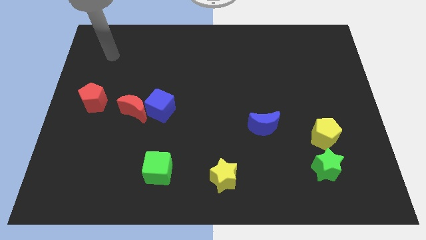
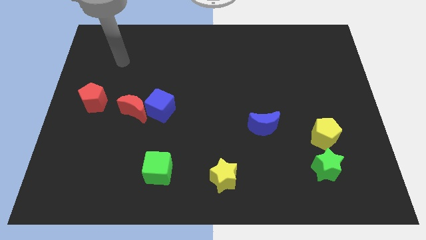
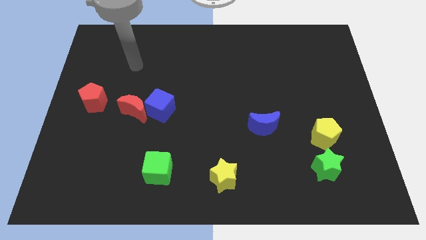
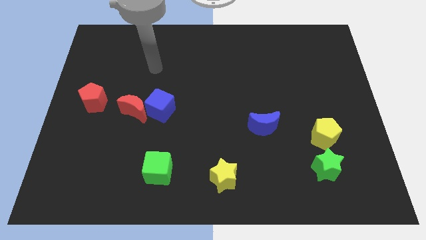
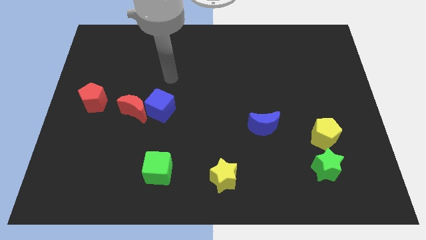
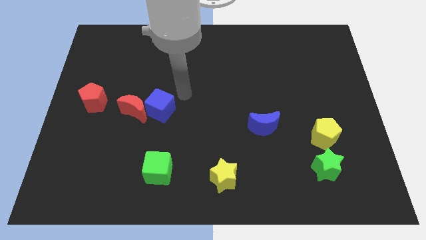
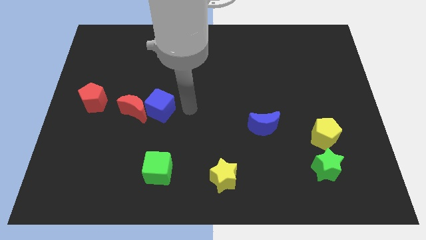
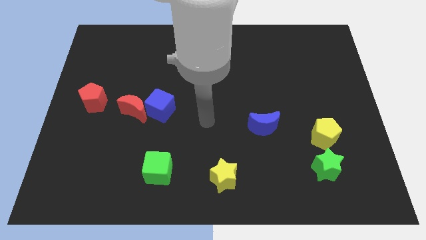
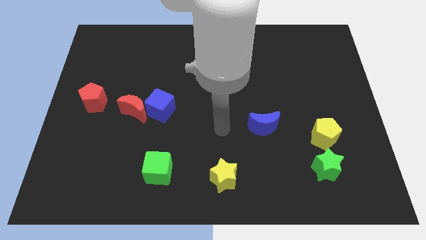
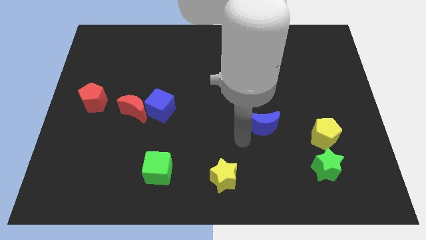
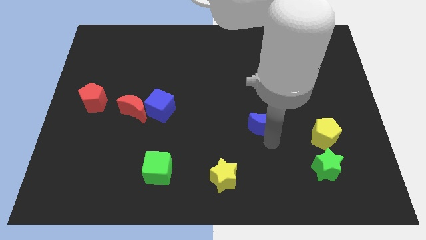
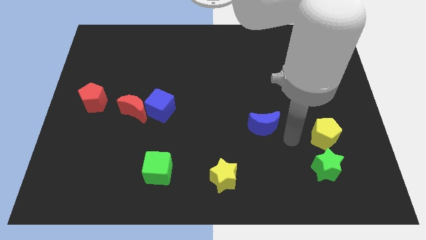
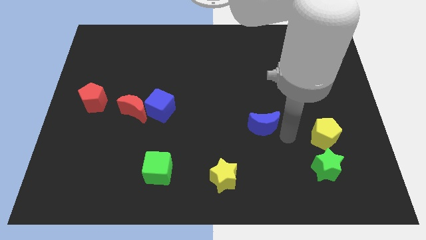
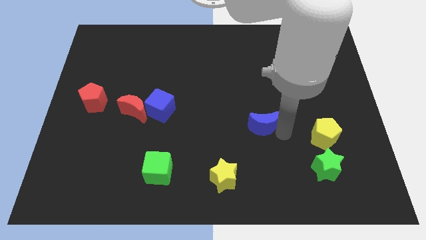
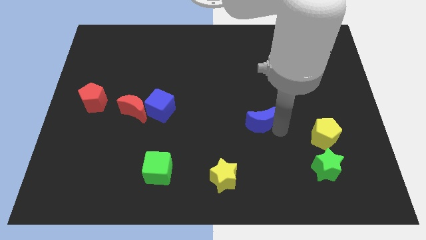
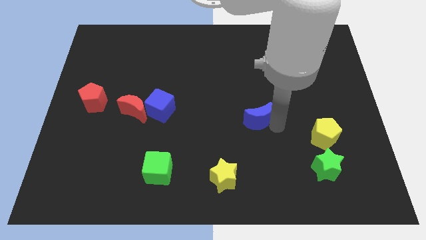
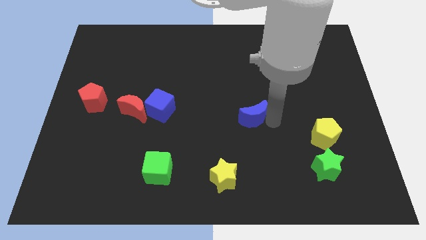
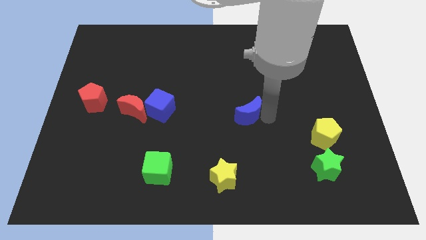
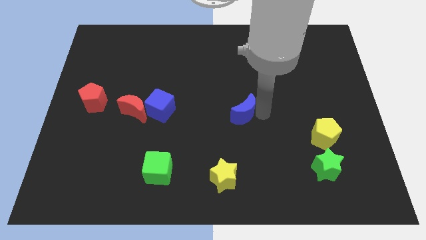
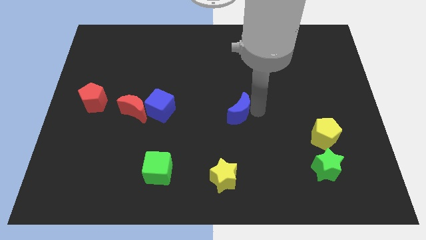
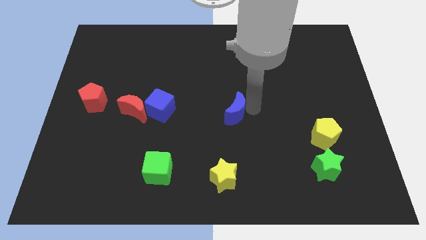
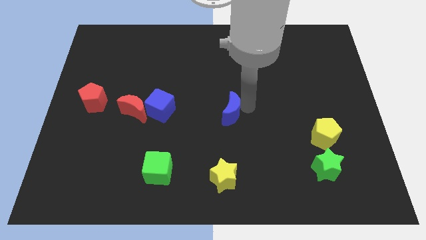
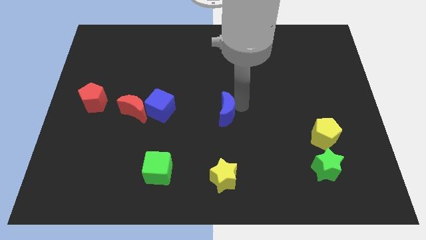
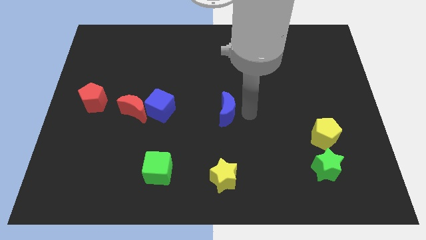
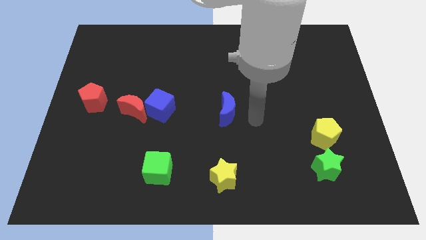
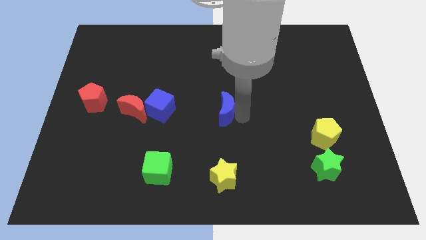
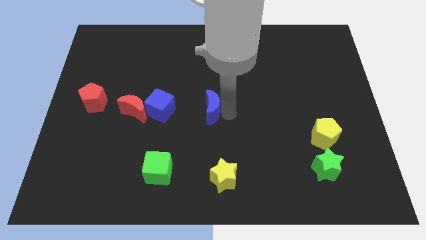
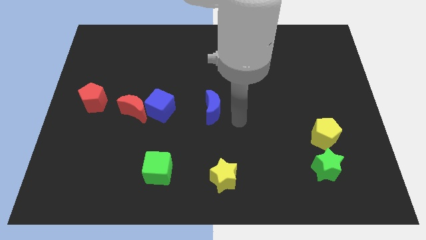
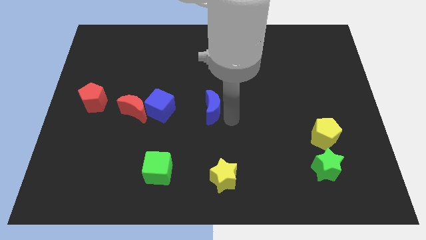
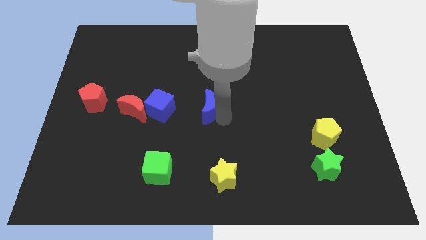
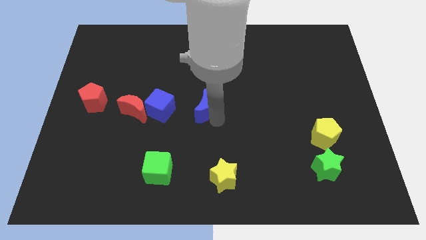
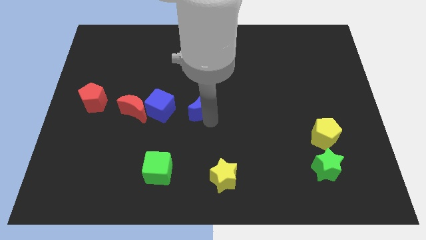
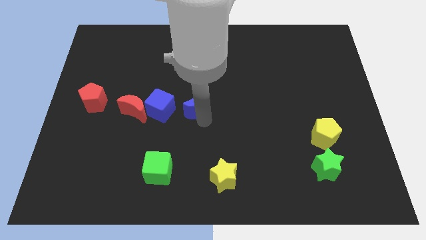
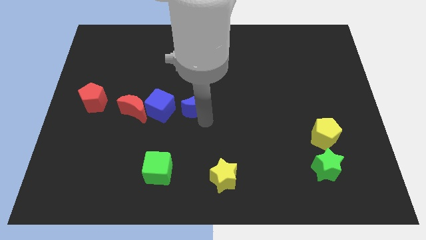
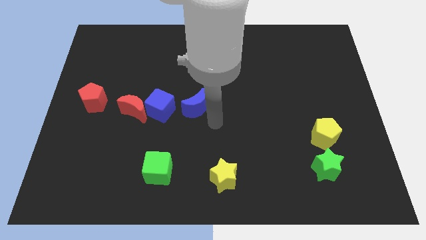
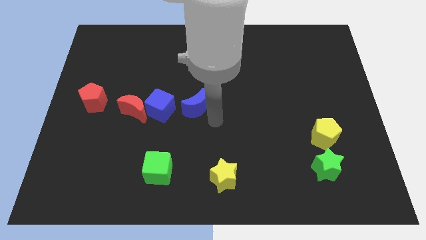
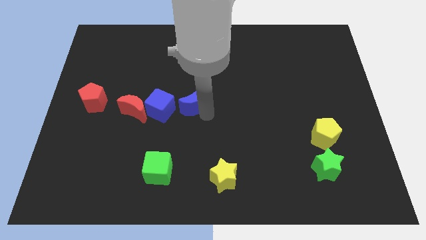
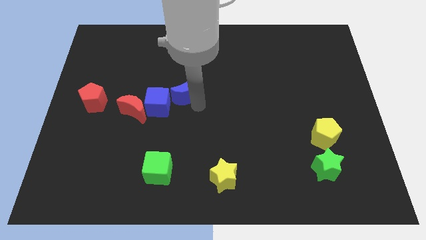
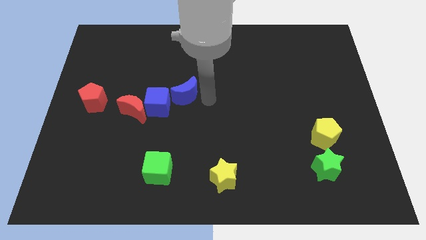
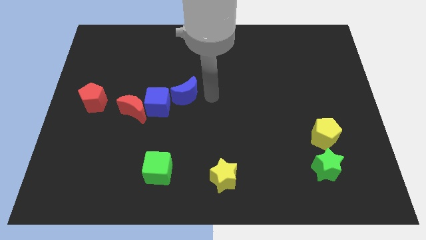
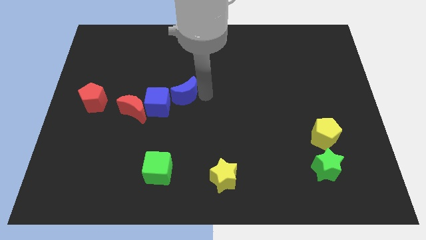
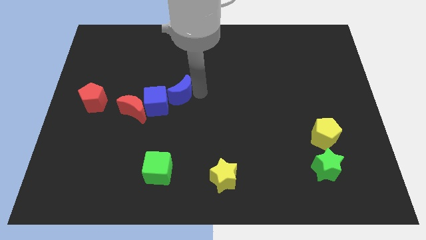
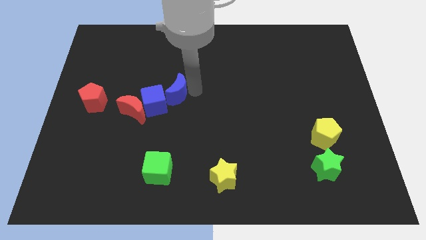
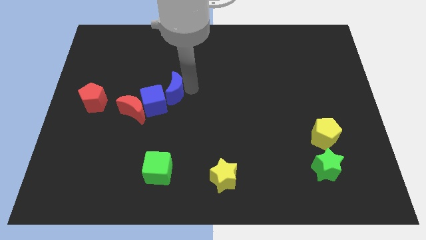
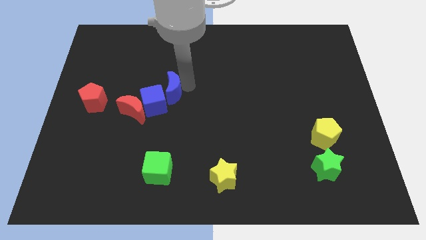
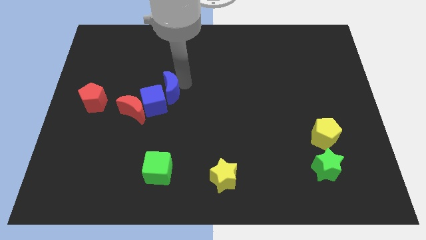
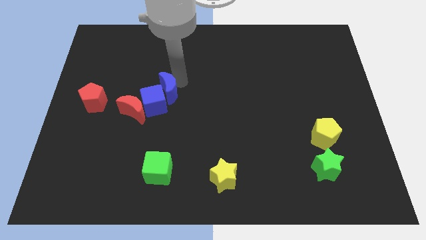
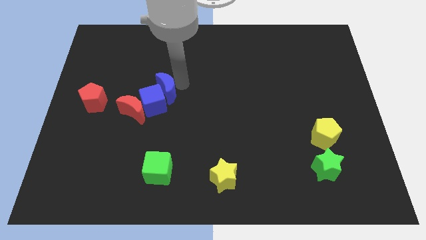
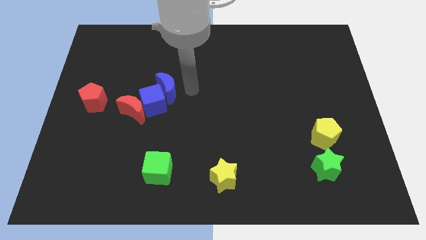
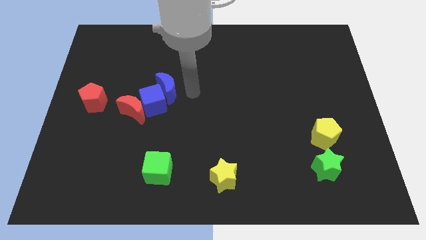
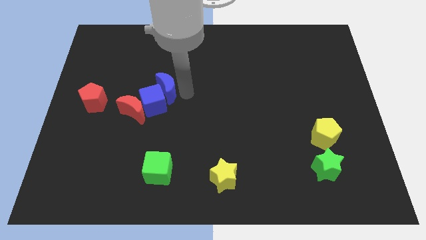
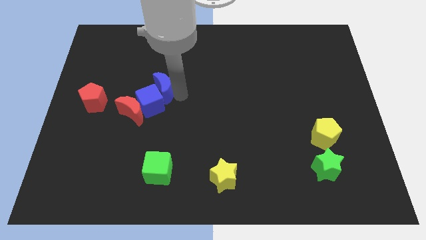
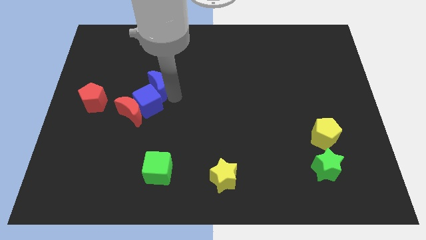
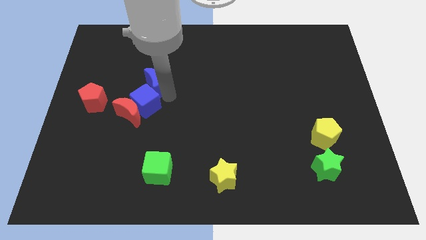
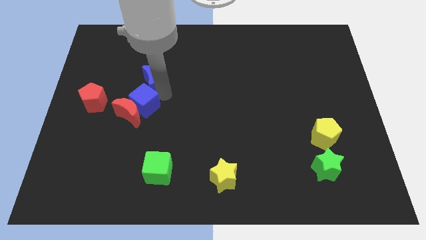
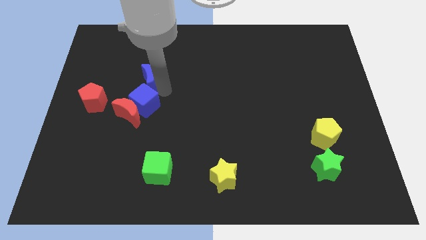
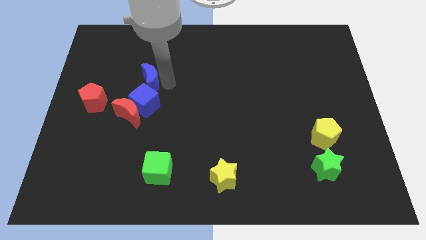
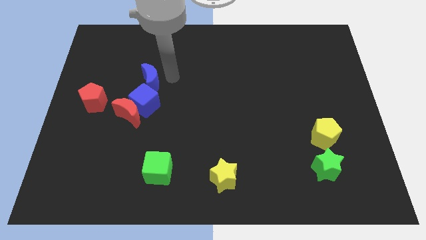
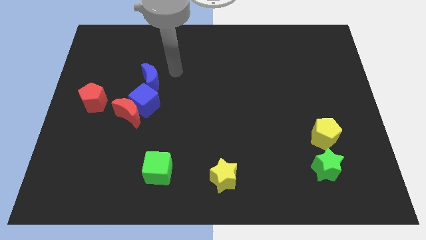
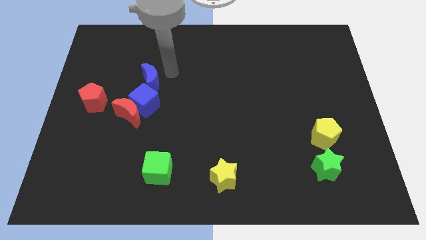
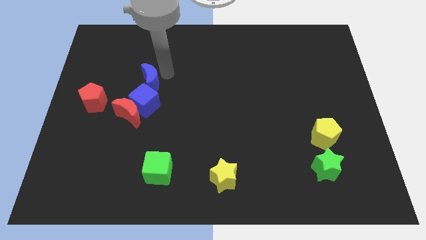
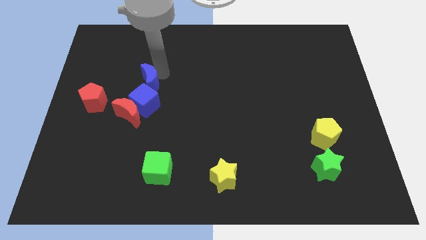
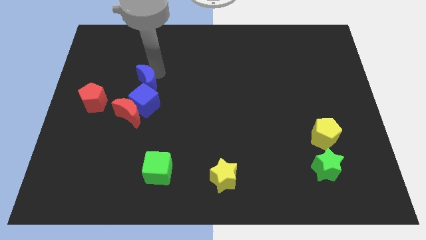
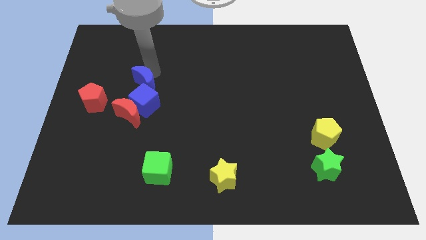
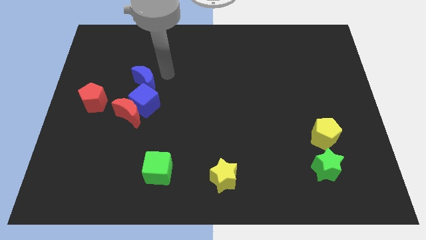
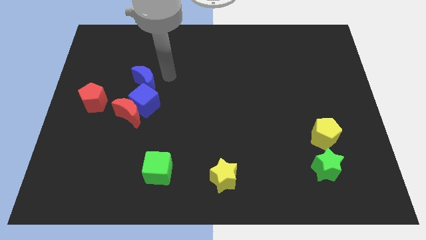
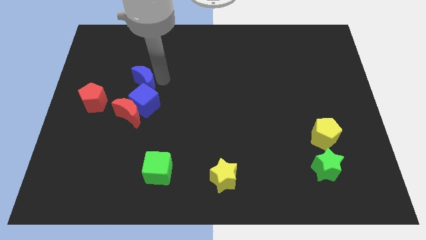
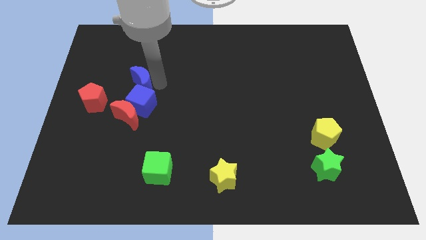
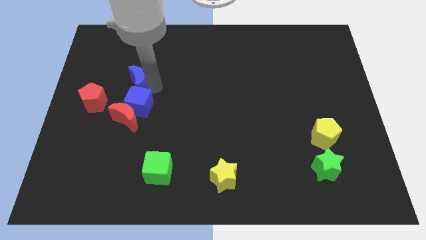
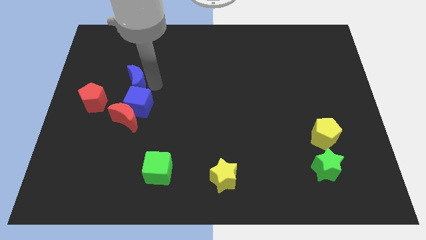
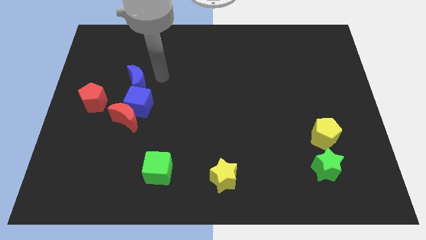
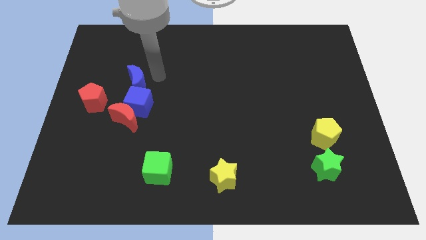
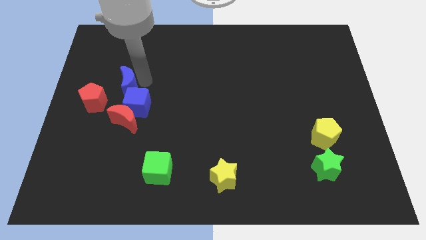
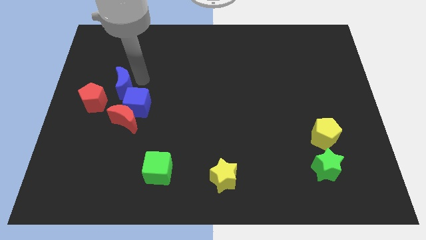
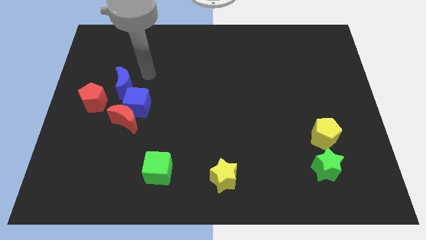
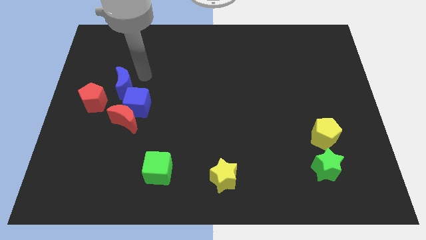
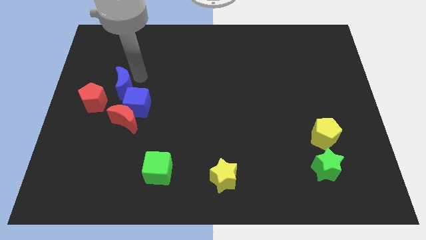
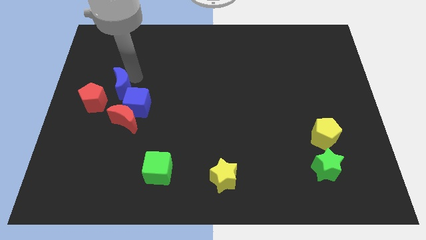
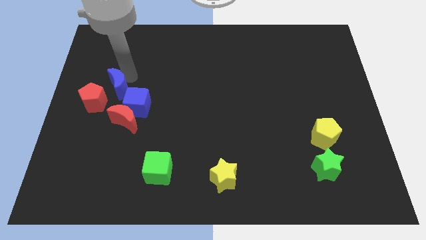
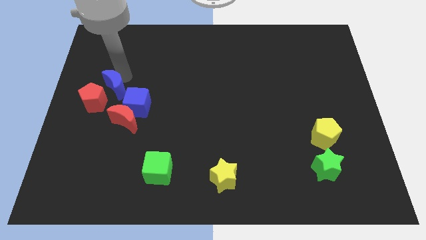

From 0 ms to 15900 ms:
move the blue moon towards the red pentagon
